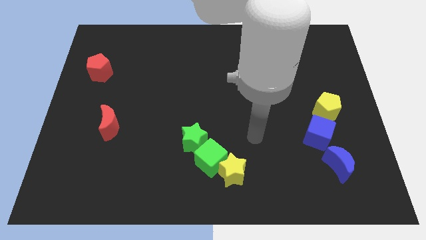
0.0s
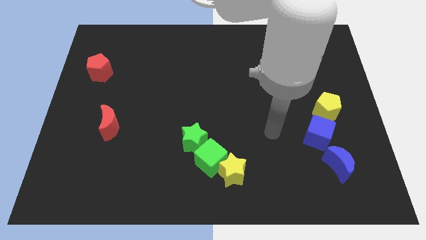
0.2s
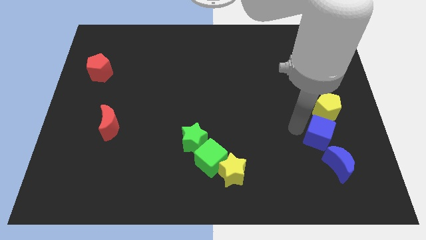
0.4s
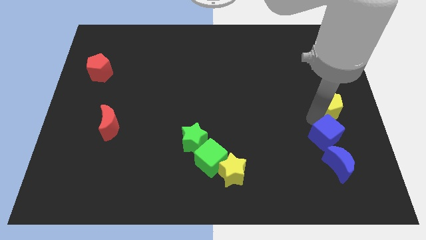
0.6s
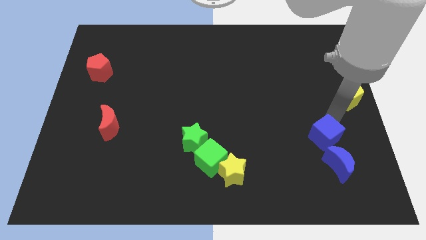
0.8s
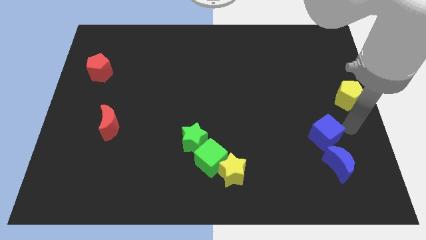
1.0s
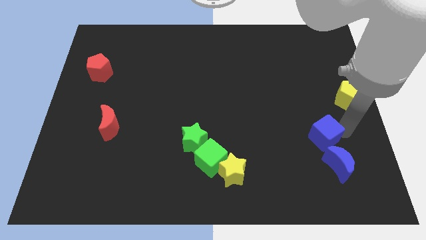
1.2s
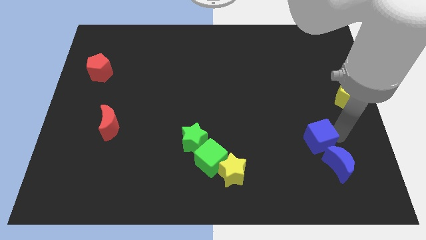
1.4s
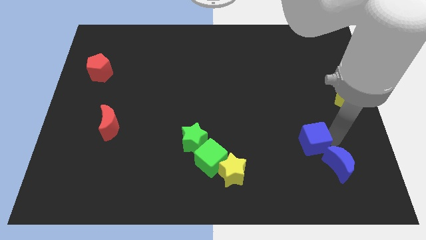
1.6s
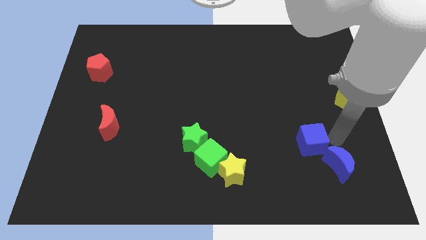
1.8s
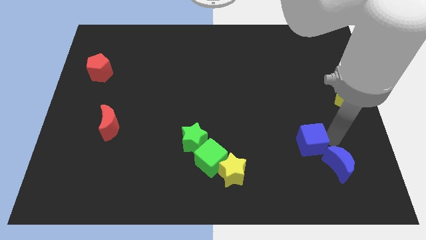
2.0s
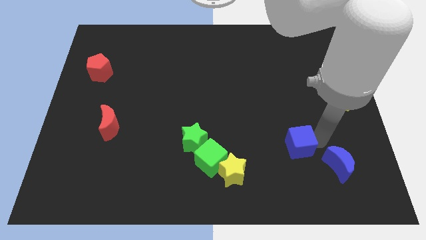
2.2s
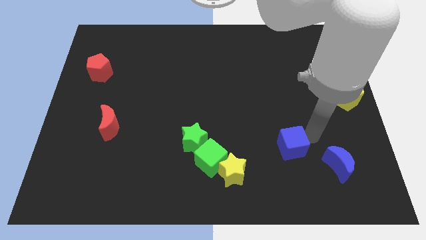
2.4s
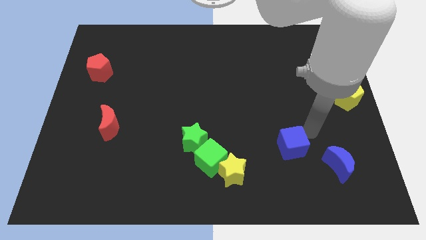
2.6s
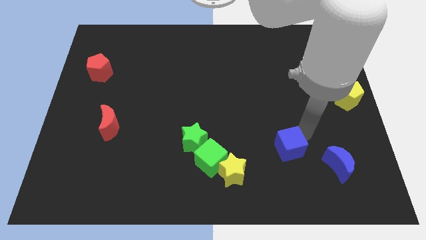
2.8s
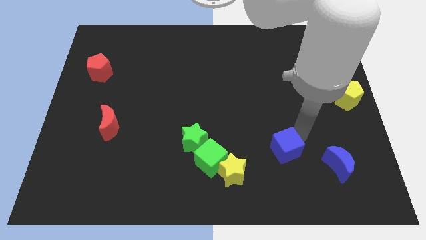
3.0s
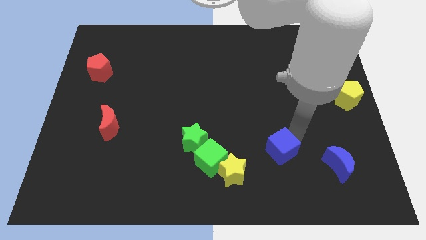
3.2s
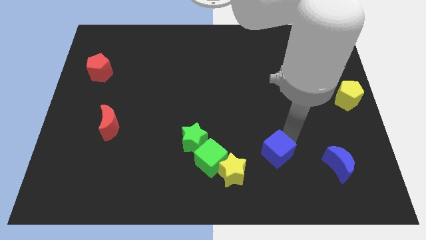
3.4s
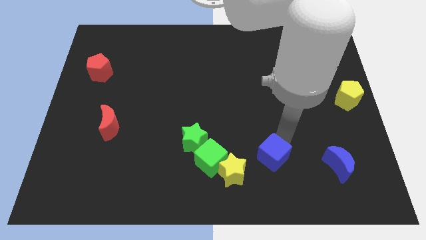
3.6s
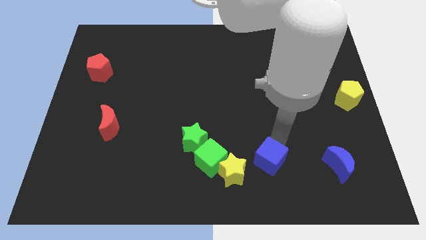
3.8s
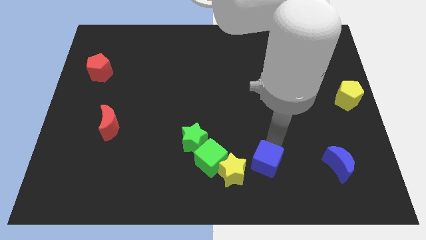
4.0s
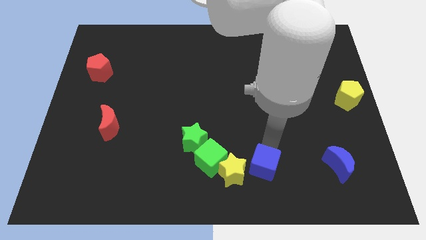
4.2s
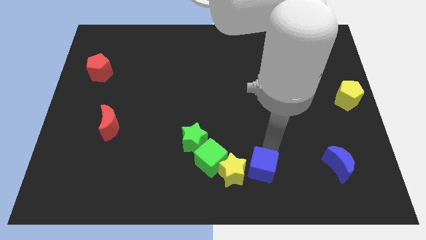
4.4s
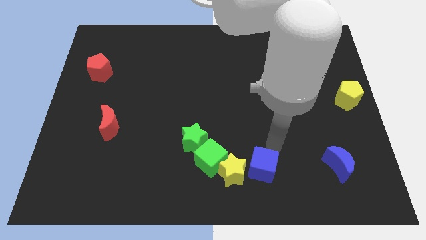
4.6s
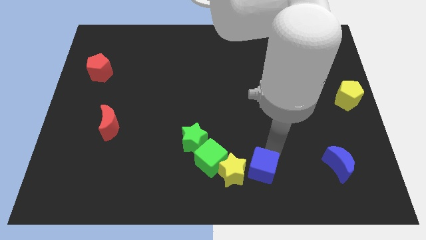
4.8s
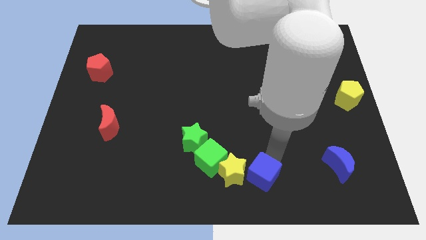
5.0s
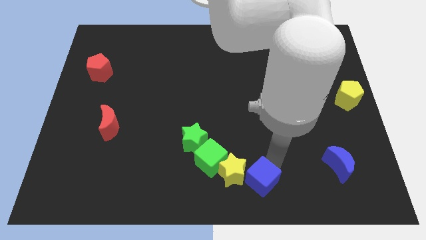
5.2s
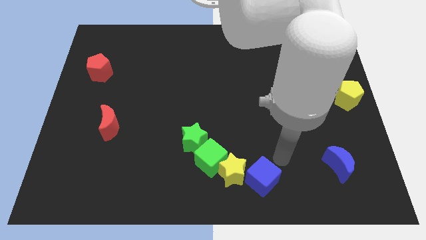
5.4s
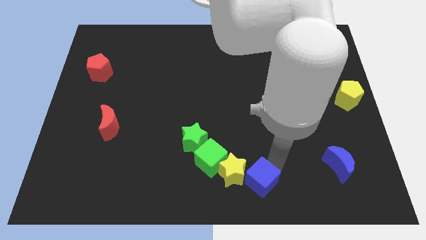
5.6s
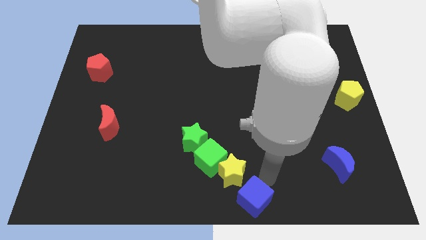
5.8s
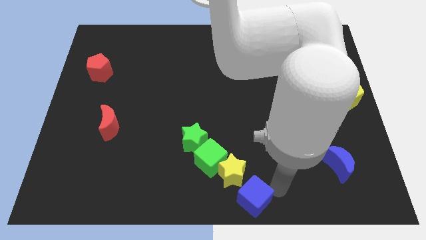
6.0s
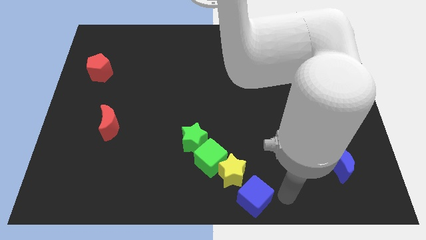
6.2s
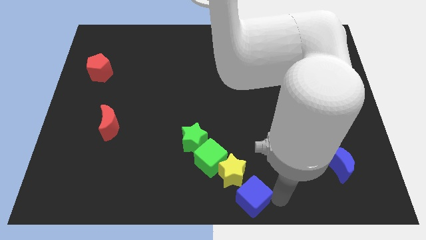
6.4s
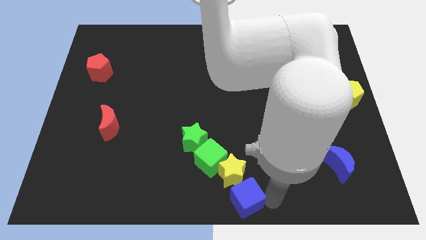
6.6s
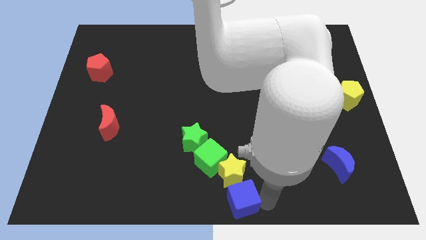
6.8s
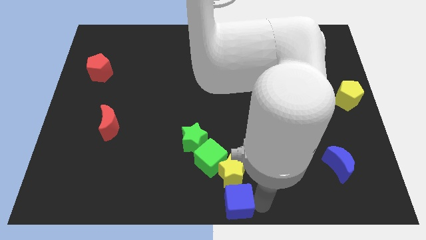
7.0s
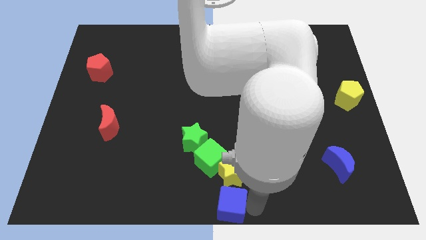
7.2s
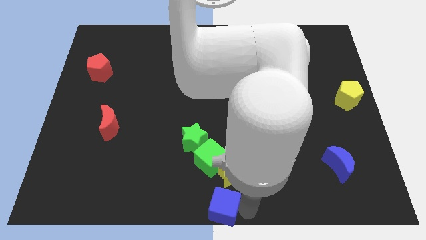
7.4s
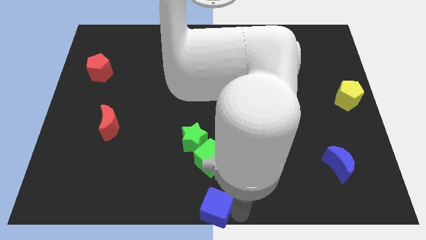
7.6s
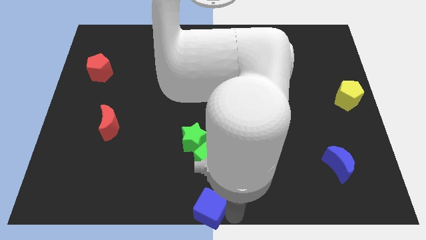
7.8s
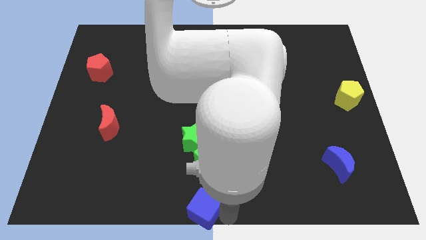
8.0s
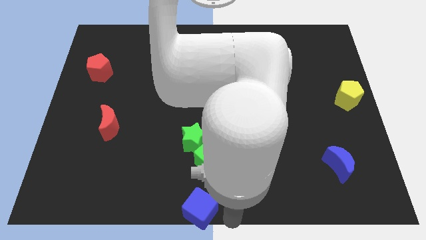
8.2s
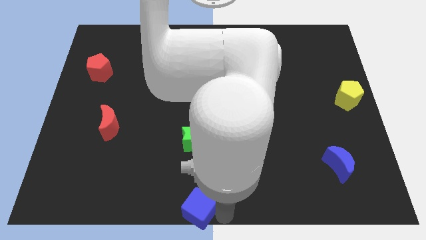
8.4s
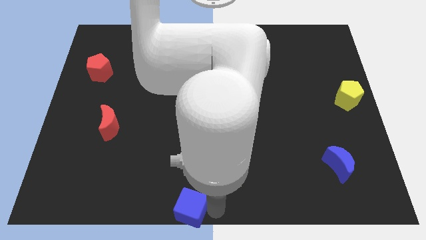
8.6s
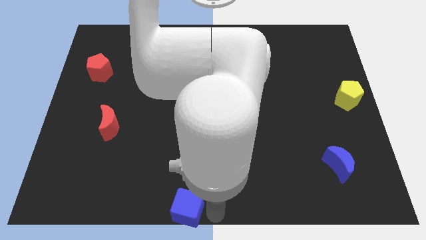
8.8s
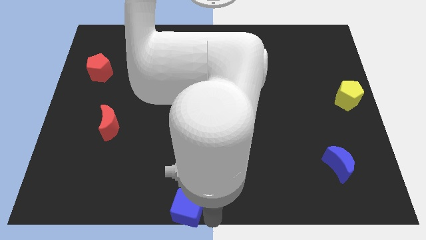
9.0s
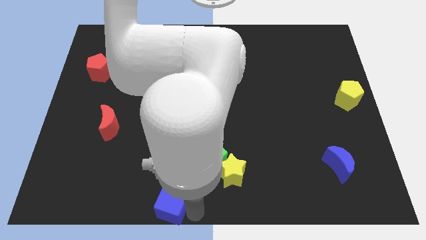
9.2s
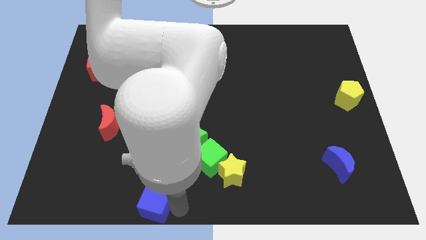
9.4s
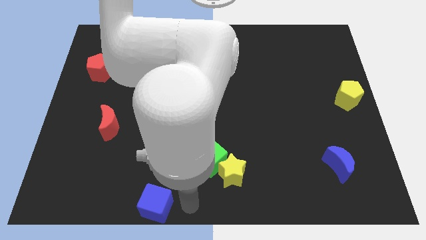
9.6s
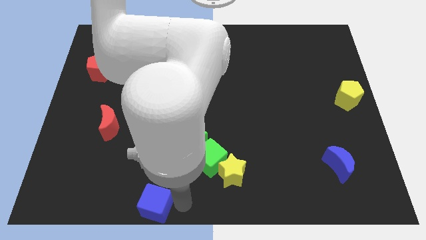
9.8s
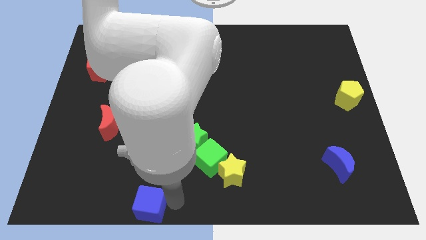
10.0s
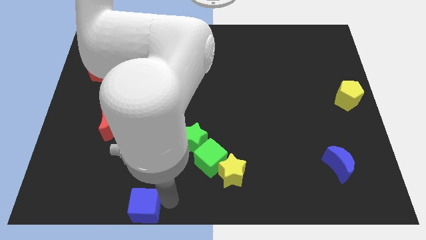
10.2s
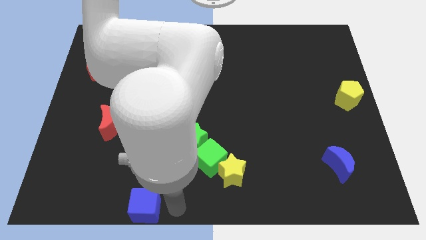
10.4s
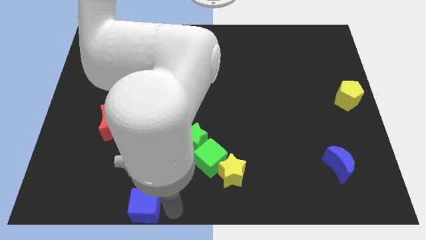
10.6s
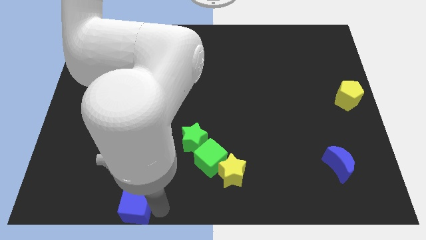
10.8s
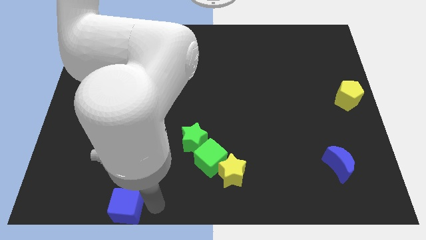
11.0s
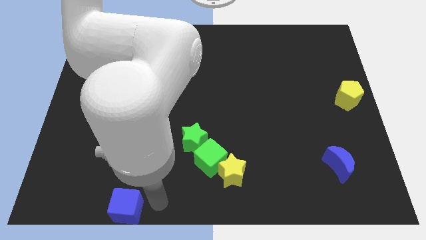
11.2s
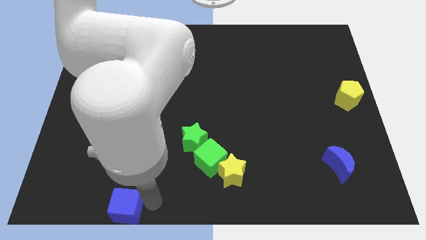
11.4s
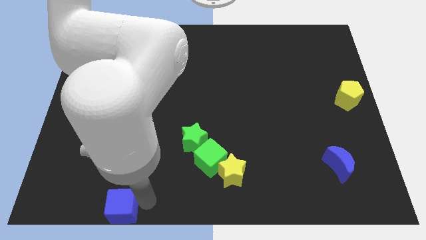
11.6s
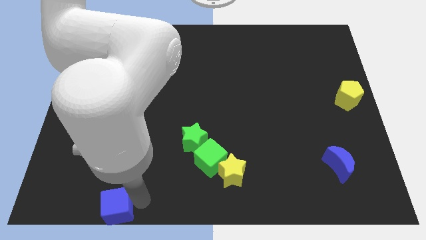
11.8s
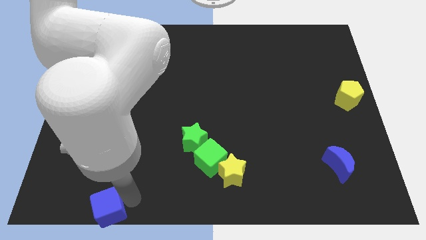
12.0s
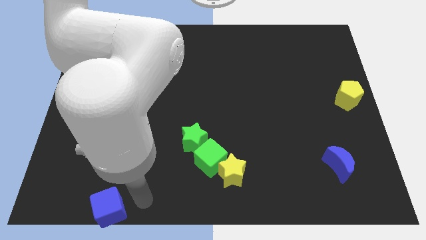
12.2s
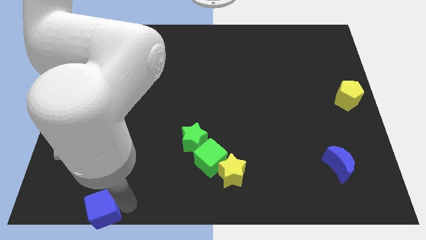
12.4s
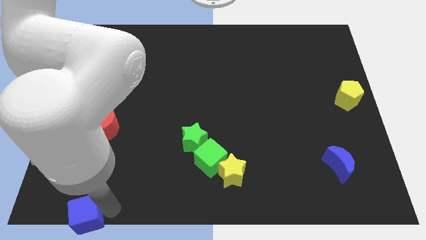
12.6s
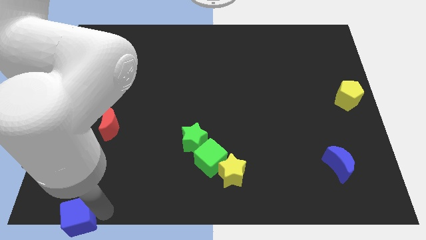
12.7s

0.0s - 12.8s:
put the blue cube to the bottom left of the board
